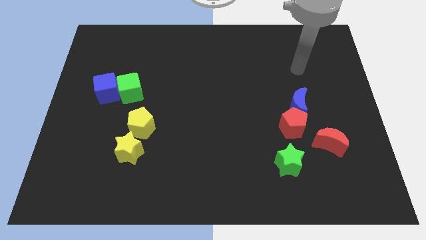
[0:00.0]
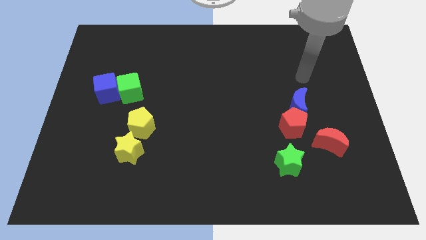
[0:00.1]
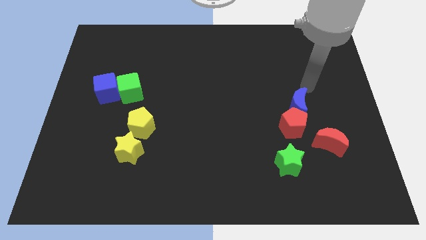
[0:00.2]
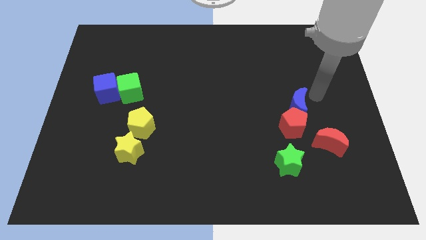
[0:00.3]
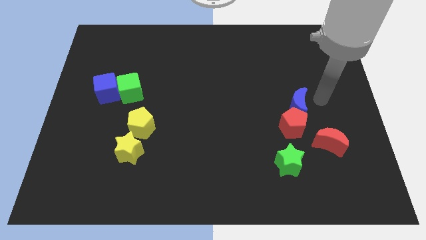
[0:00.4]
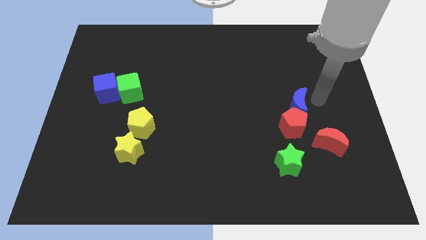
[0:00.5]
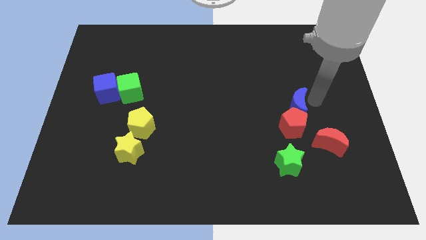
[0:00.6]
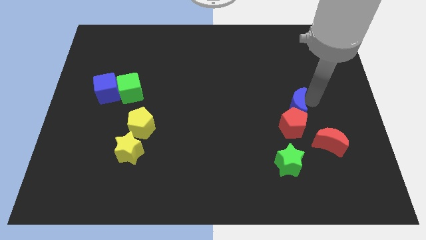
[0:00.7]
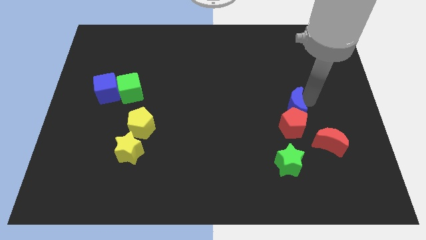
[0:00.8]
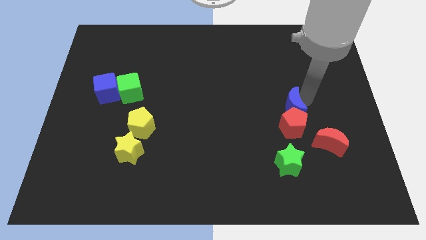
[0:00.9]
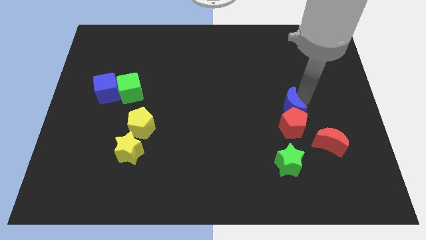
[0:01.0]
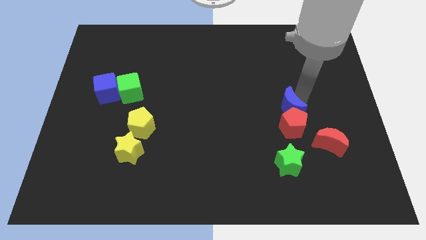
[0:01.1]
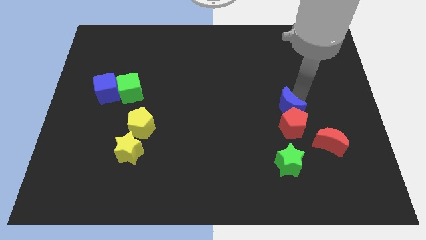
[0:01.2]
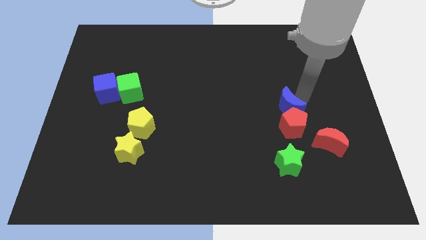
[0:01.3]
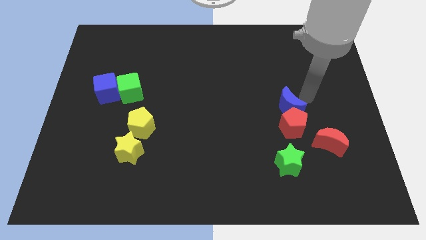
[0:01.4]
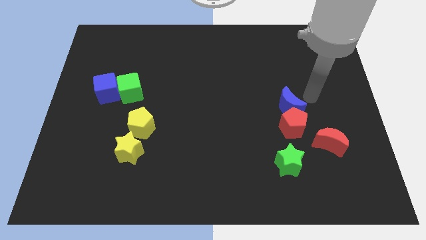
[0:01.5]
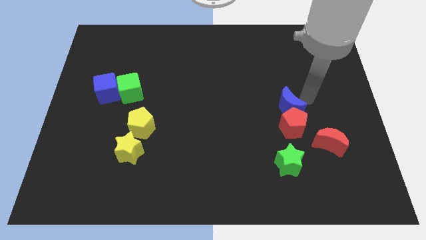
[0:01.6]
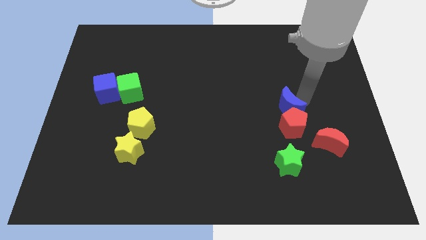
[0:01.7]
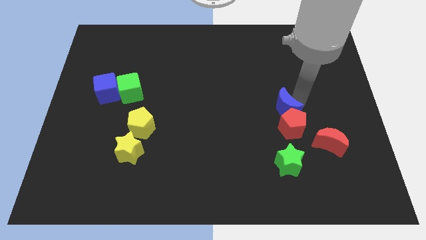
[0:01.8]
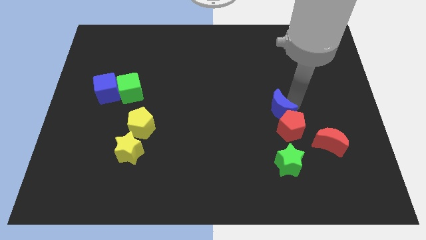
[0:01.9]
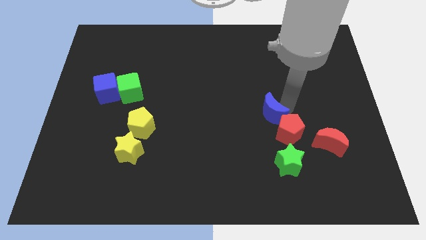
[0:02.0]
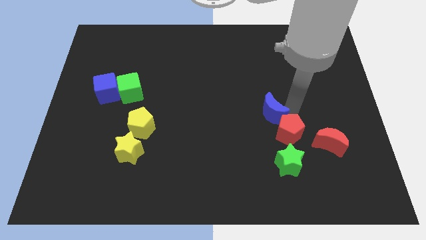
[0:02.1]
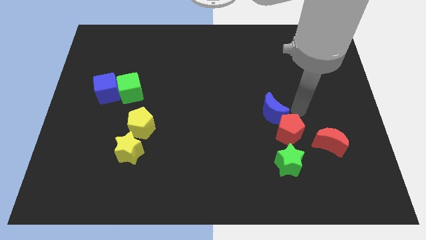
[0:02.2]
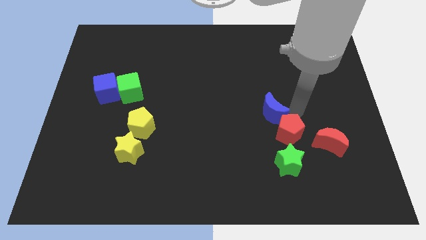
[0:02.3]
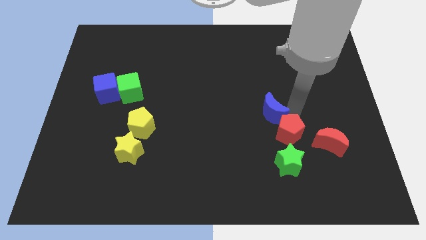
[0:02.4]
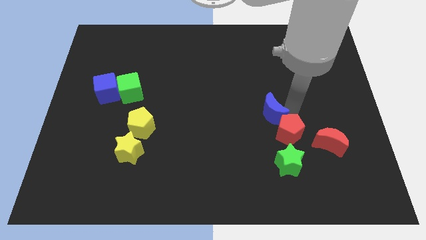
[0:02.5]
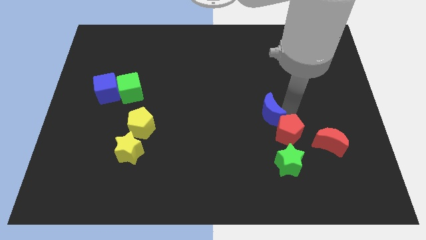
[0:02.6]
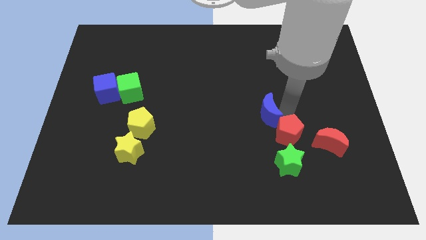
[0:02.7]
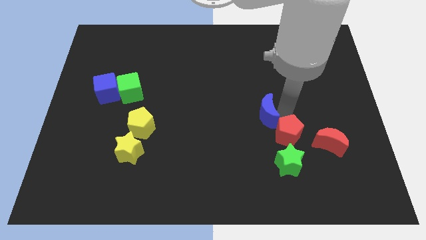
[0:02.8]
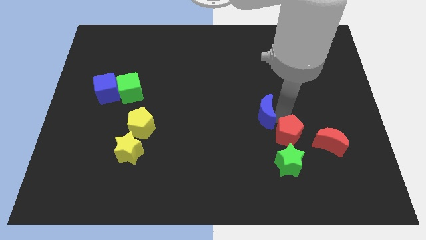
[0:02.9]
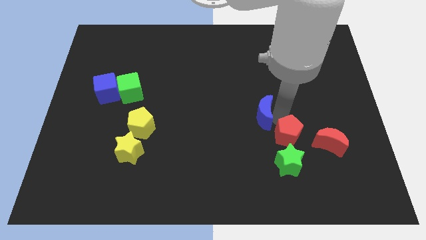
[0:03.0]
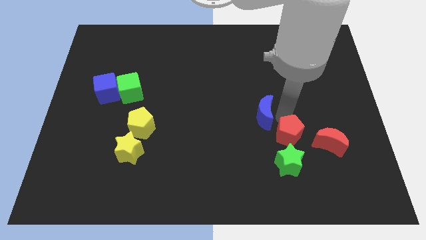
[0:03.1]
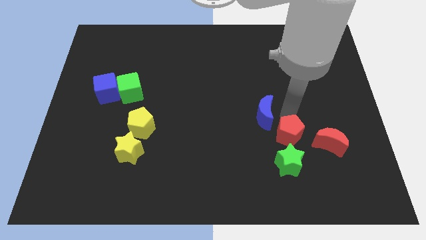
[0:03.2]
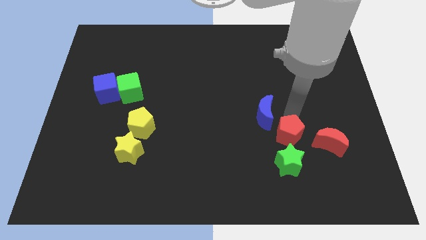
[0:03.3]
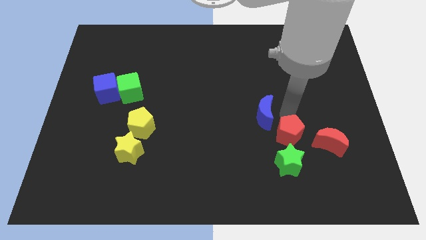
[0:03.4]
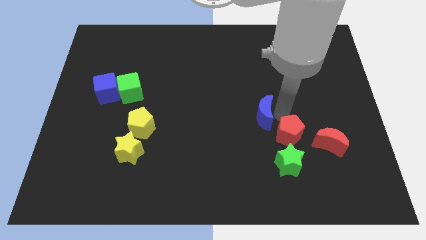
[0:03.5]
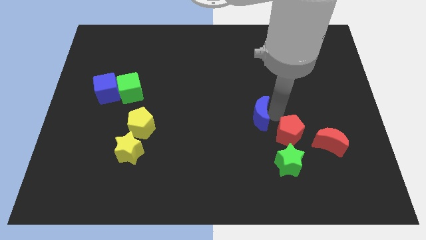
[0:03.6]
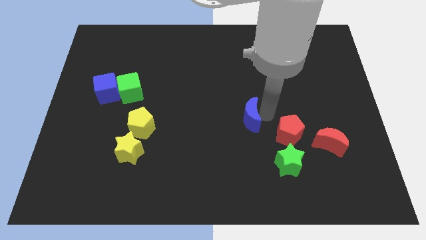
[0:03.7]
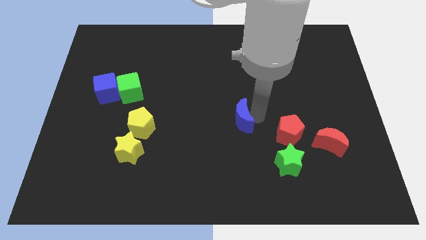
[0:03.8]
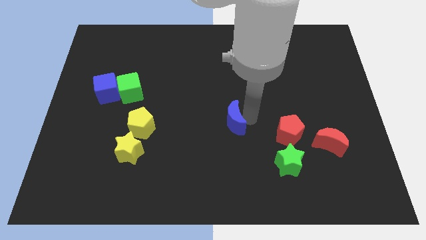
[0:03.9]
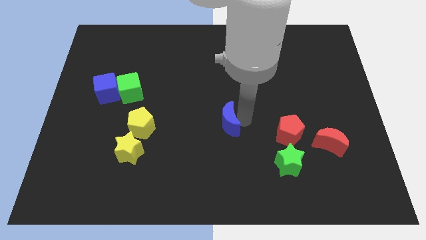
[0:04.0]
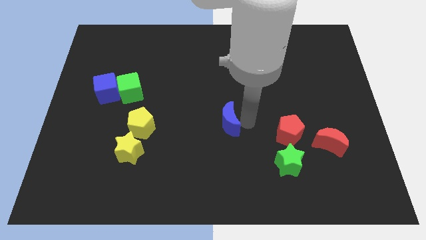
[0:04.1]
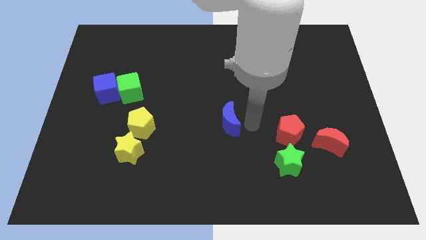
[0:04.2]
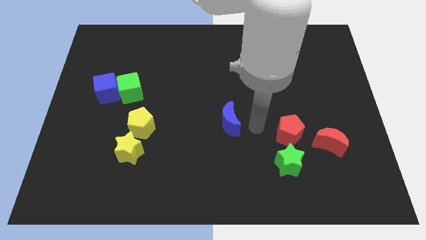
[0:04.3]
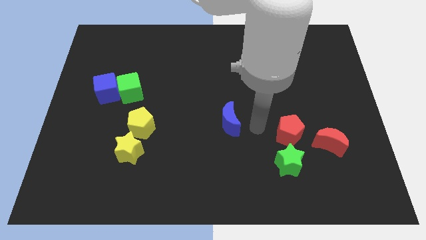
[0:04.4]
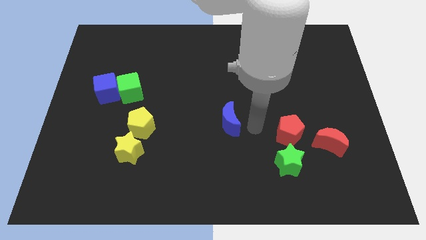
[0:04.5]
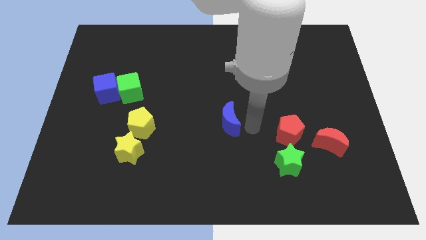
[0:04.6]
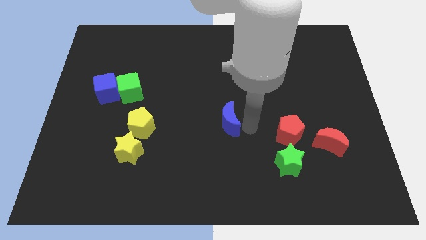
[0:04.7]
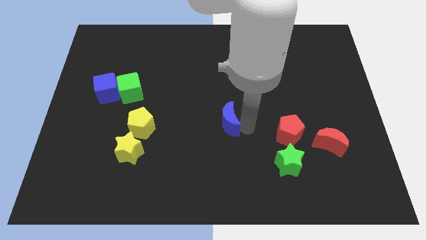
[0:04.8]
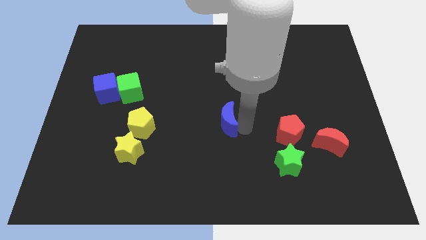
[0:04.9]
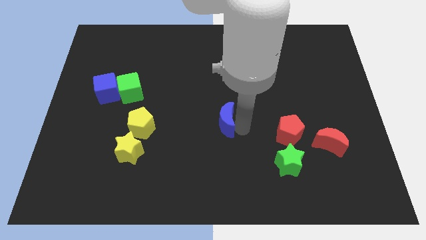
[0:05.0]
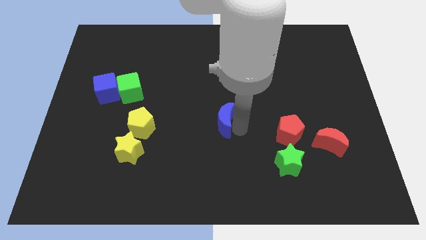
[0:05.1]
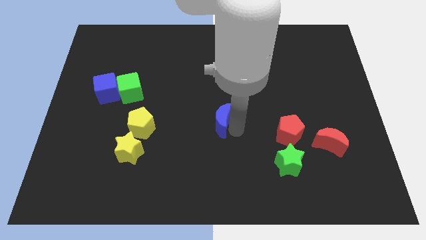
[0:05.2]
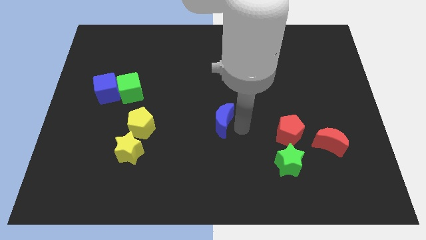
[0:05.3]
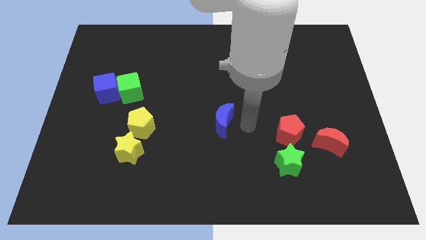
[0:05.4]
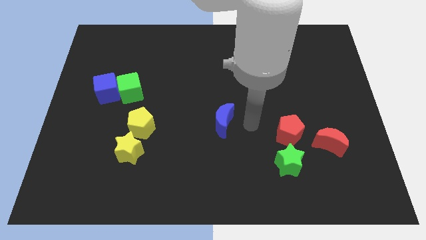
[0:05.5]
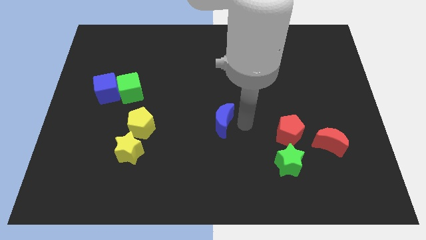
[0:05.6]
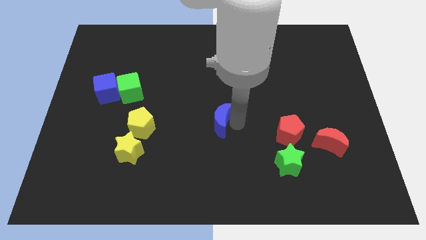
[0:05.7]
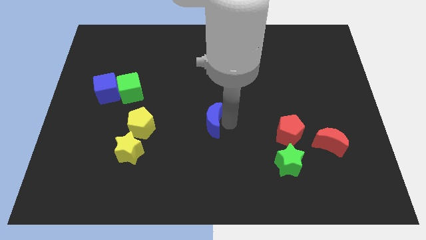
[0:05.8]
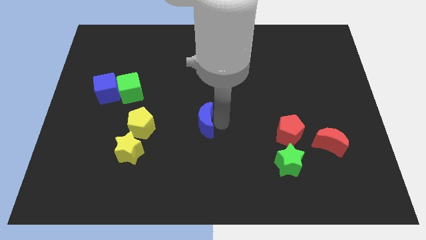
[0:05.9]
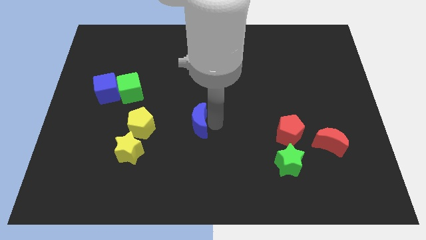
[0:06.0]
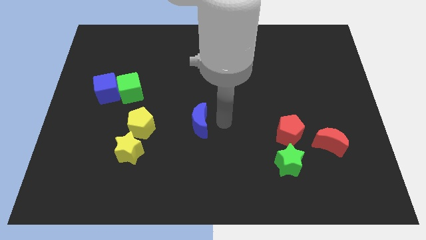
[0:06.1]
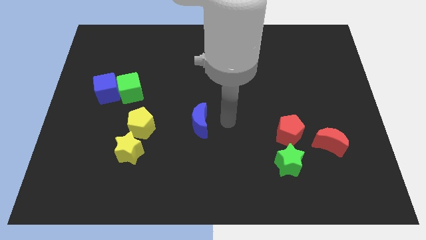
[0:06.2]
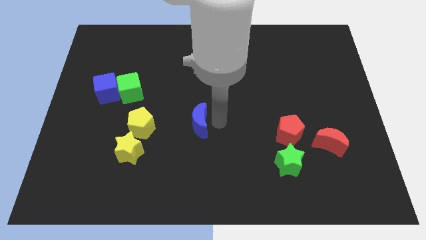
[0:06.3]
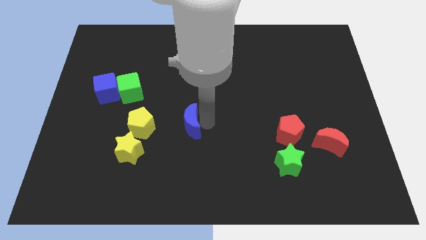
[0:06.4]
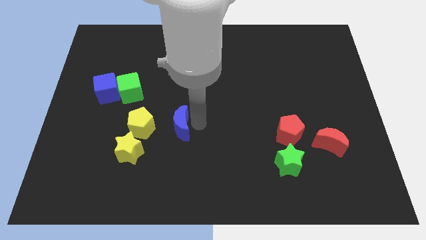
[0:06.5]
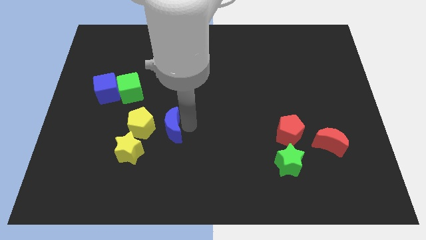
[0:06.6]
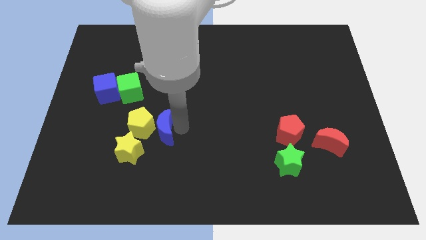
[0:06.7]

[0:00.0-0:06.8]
put the blue moon close to the yellow pentagon
